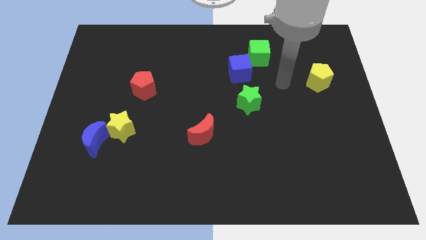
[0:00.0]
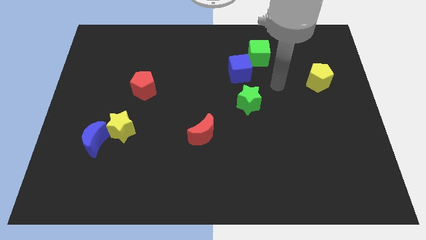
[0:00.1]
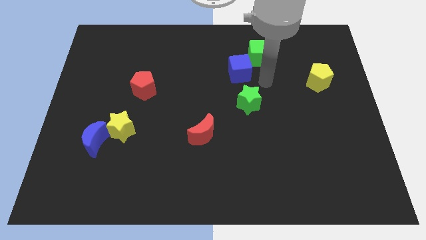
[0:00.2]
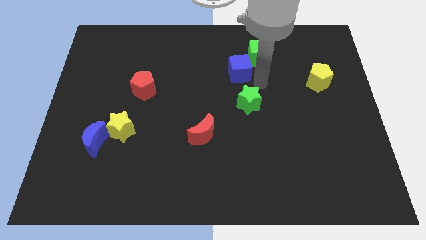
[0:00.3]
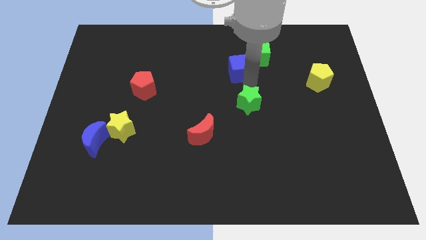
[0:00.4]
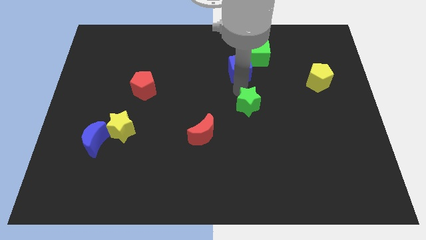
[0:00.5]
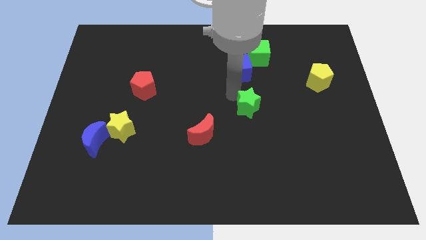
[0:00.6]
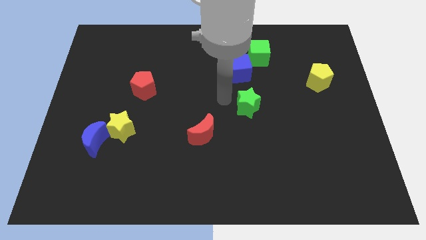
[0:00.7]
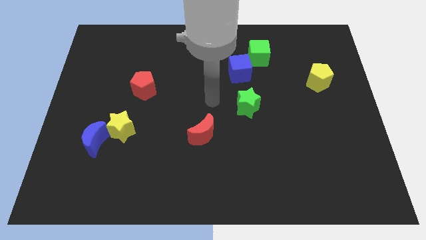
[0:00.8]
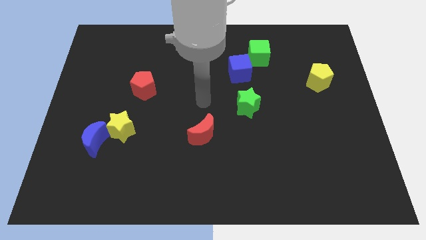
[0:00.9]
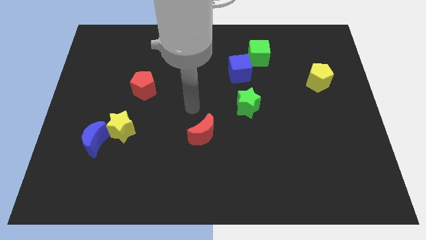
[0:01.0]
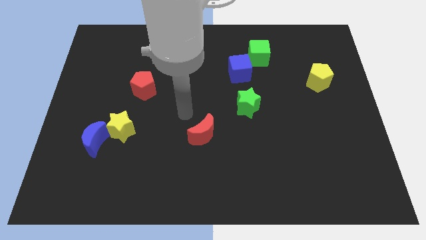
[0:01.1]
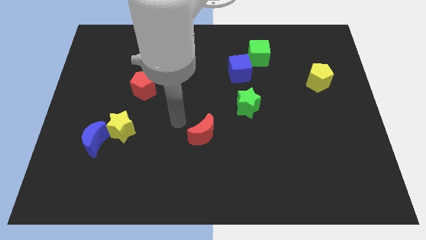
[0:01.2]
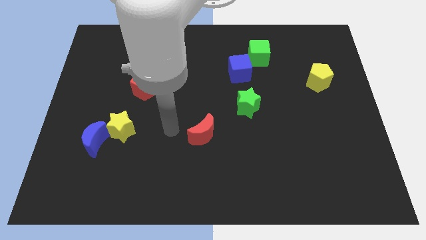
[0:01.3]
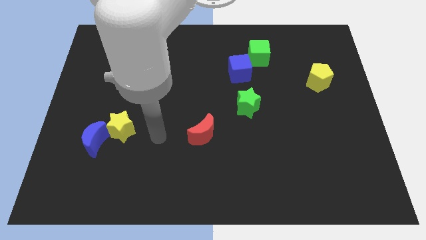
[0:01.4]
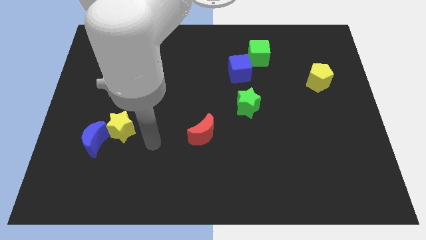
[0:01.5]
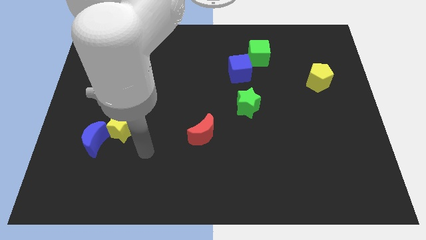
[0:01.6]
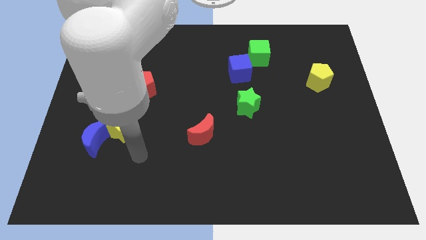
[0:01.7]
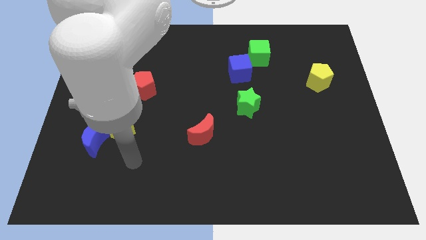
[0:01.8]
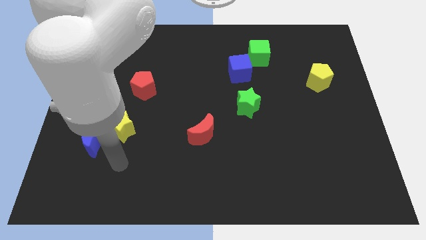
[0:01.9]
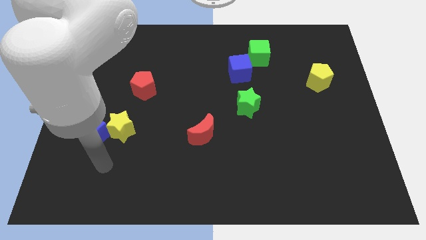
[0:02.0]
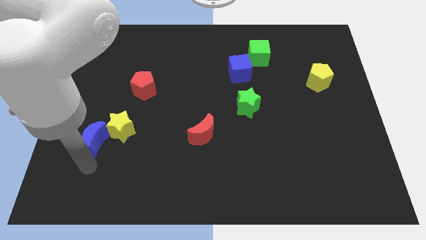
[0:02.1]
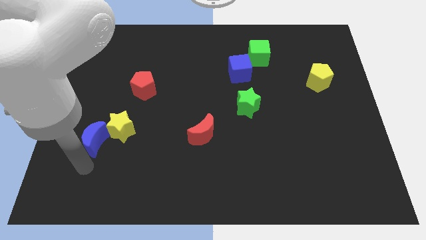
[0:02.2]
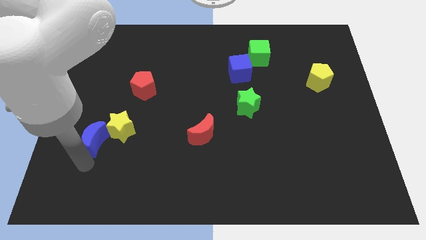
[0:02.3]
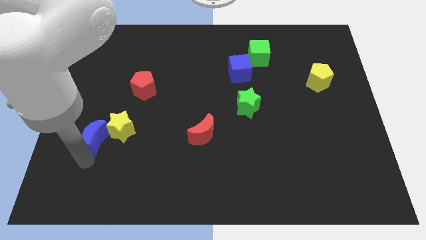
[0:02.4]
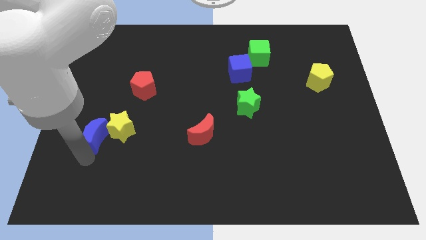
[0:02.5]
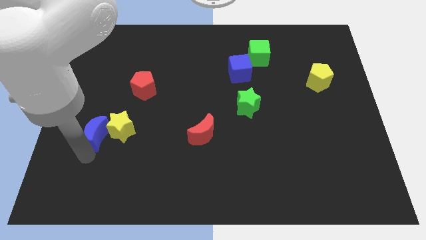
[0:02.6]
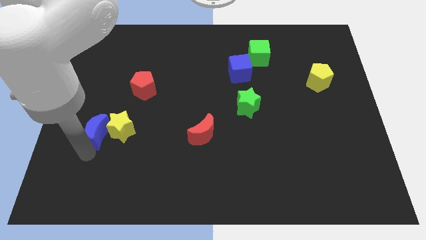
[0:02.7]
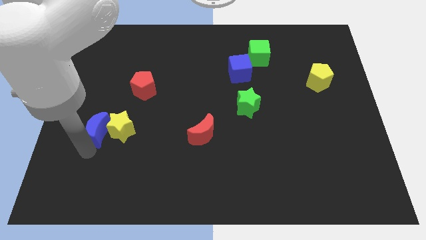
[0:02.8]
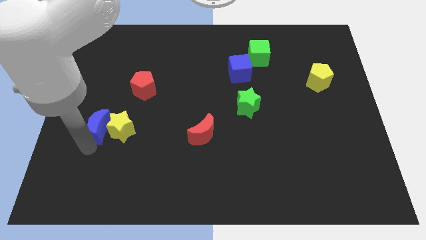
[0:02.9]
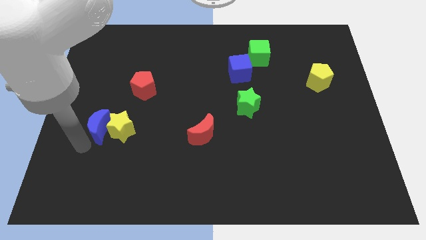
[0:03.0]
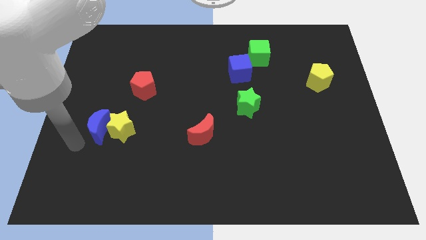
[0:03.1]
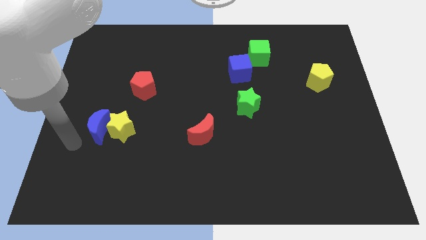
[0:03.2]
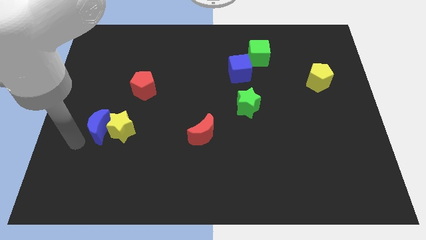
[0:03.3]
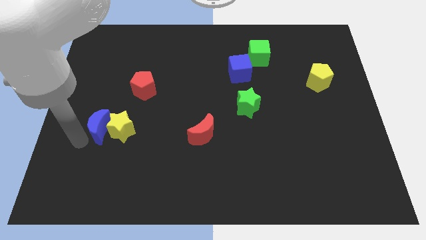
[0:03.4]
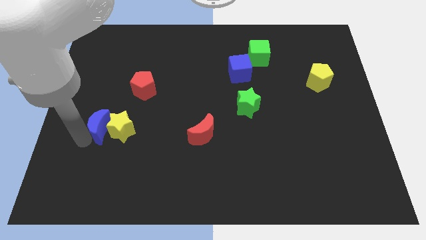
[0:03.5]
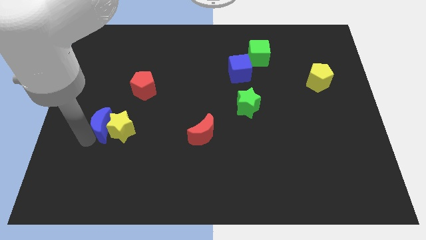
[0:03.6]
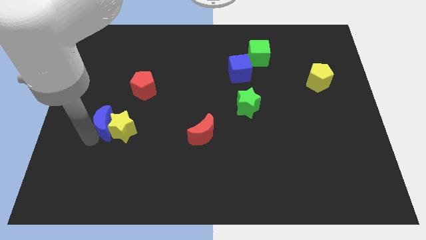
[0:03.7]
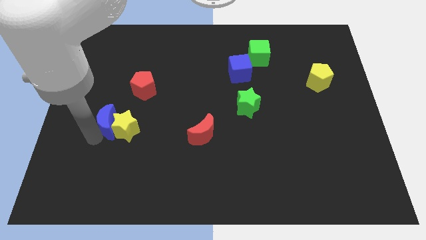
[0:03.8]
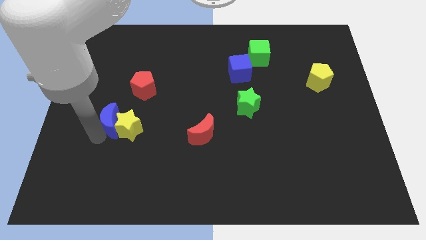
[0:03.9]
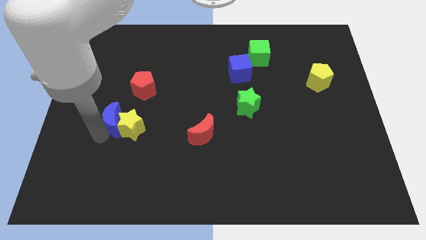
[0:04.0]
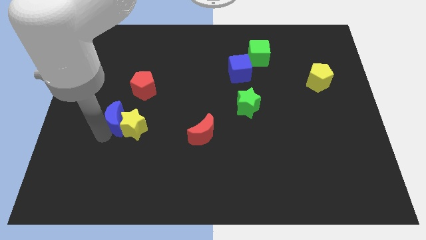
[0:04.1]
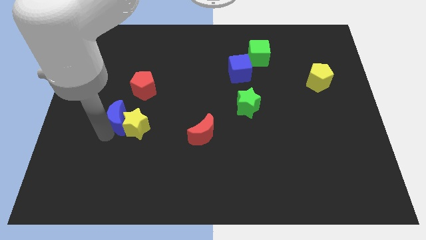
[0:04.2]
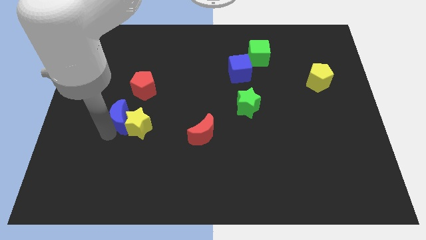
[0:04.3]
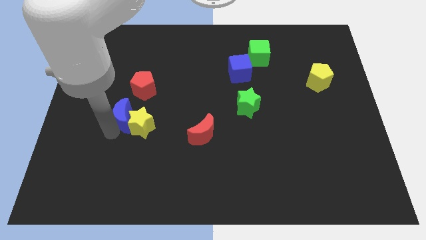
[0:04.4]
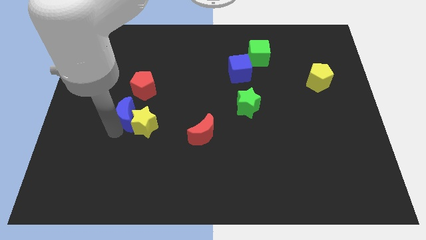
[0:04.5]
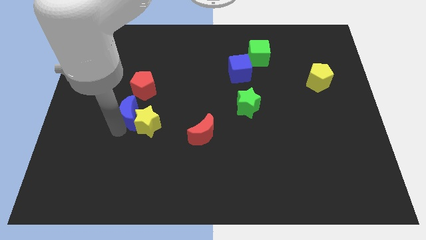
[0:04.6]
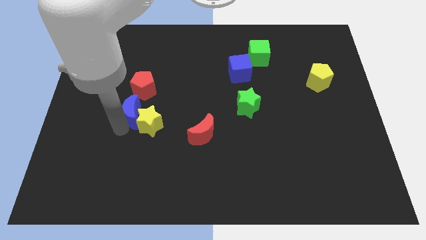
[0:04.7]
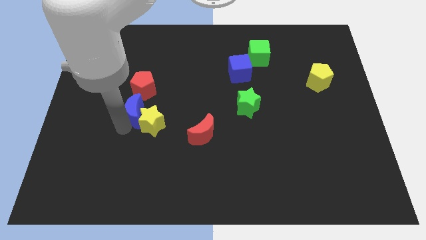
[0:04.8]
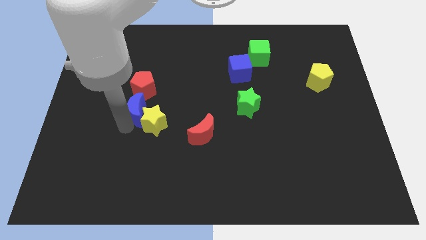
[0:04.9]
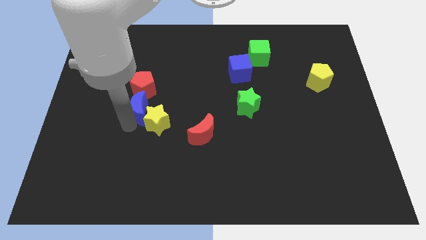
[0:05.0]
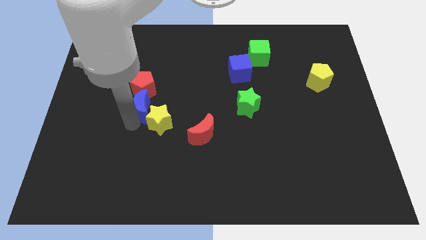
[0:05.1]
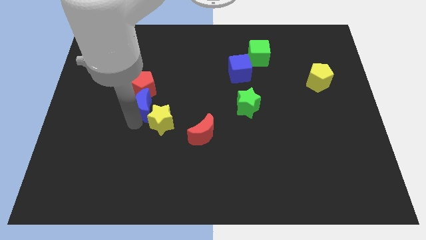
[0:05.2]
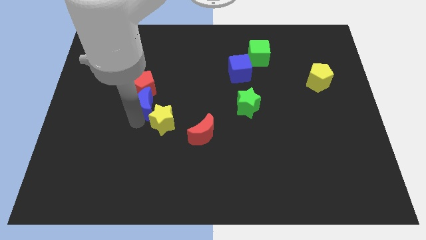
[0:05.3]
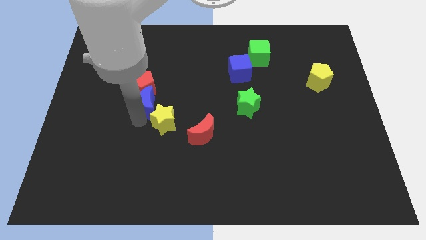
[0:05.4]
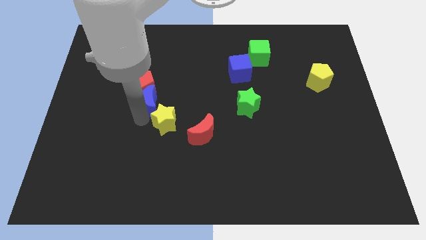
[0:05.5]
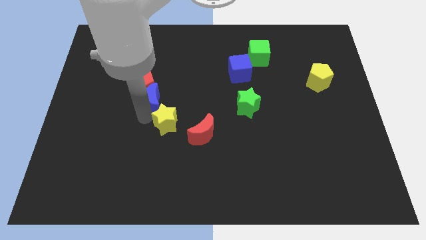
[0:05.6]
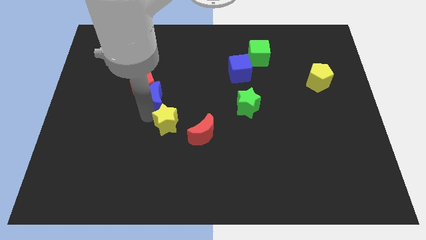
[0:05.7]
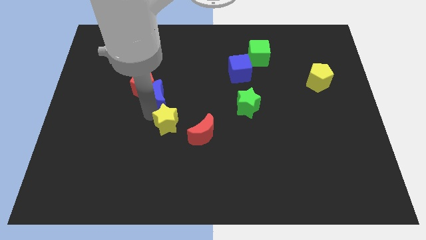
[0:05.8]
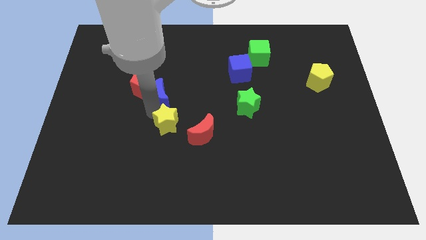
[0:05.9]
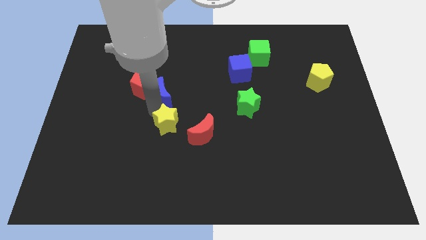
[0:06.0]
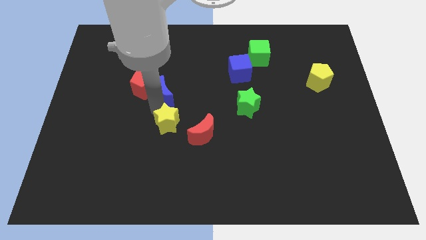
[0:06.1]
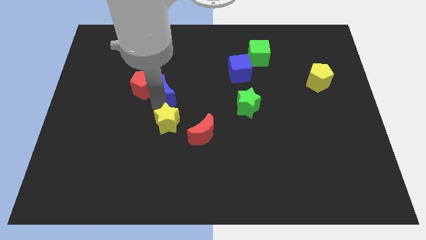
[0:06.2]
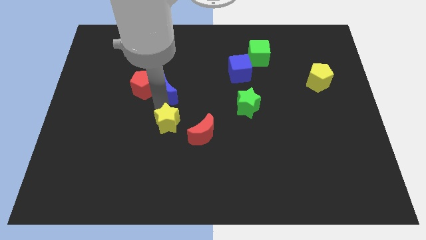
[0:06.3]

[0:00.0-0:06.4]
slide the blue moon up and to the right diagonally

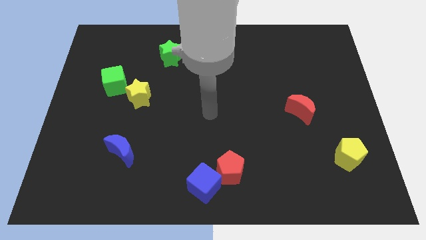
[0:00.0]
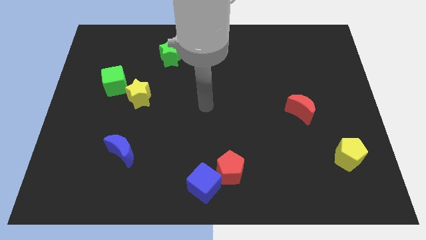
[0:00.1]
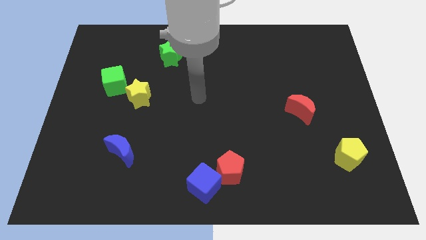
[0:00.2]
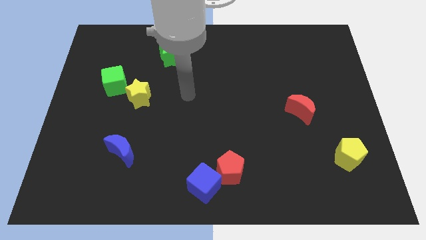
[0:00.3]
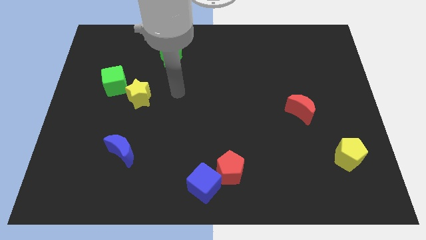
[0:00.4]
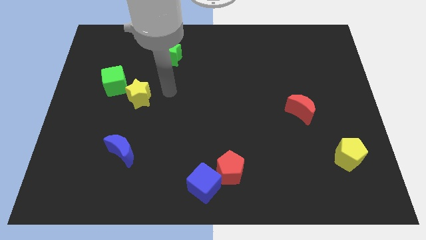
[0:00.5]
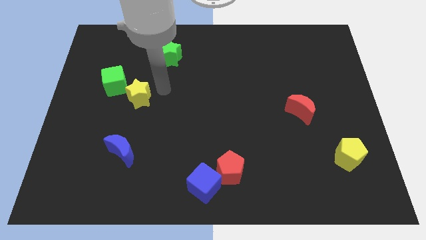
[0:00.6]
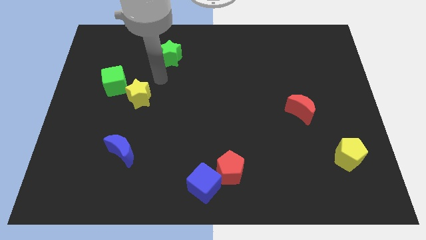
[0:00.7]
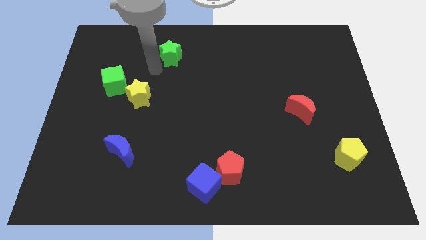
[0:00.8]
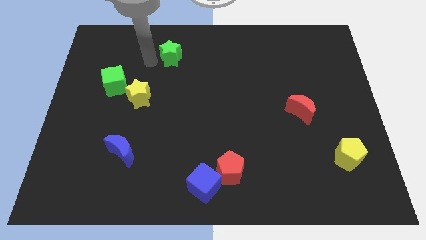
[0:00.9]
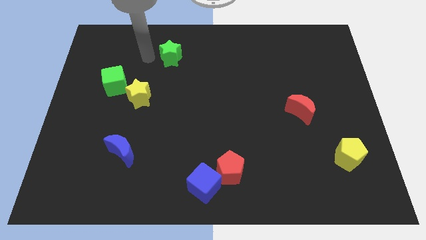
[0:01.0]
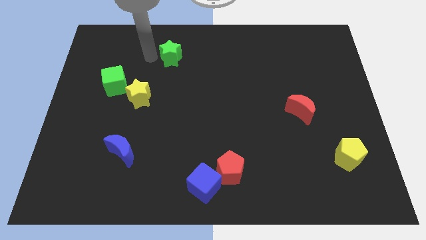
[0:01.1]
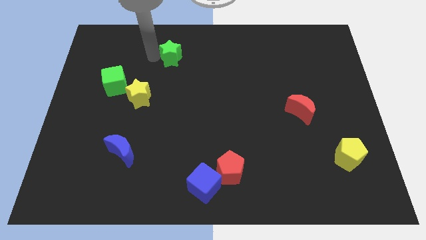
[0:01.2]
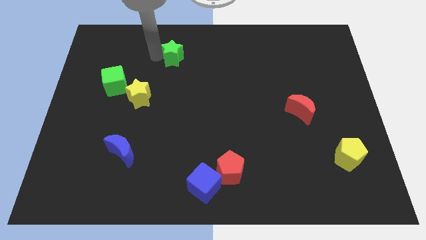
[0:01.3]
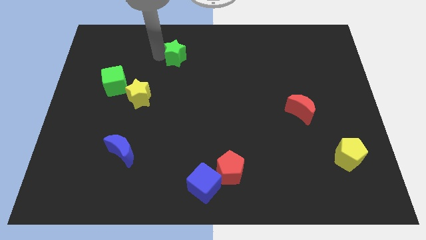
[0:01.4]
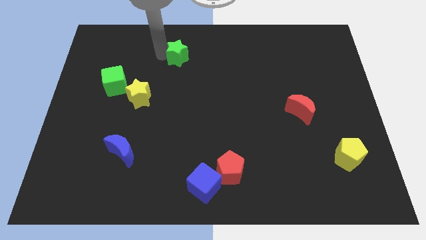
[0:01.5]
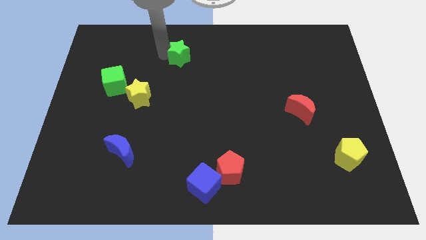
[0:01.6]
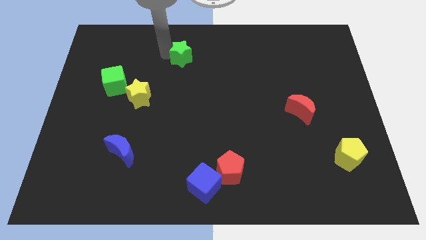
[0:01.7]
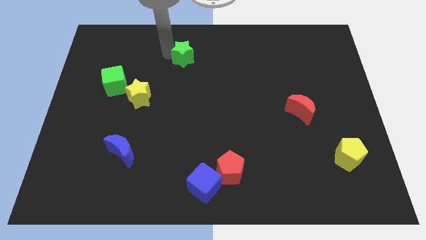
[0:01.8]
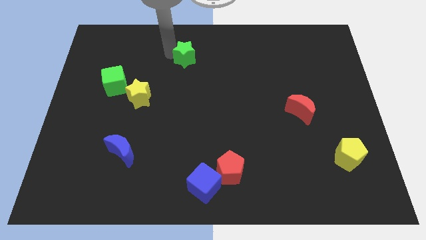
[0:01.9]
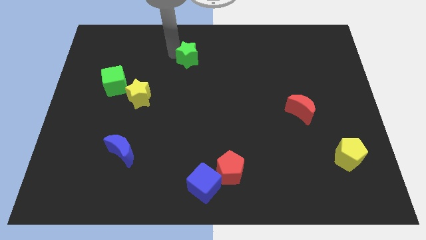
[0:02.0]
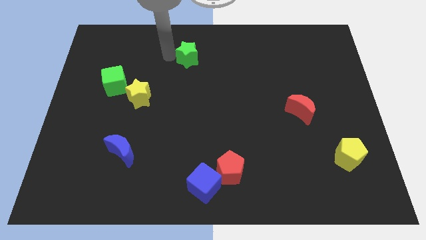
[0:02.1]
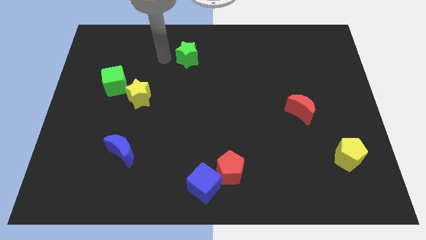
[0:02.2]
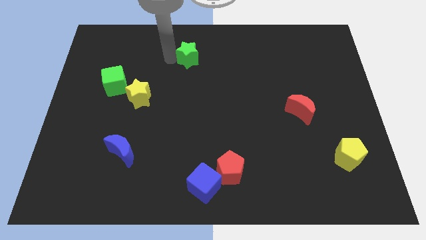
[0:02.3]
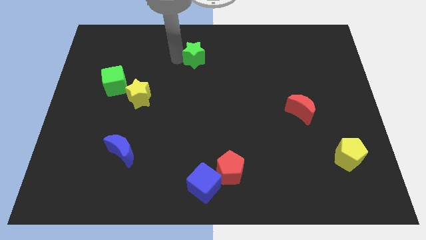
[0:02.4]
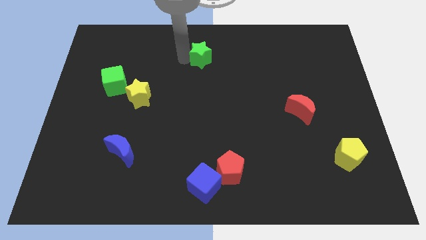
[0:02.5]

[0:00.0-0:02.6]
slightly push the green star right
